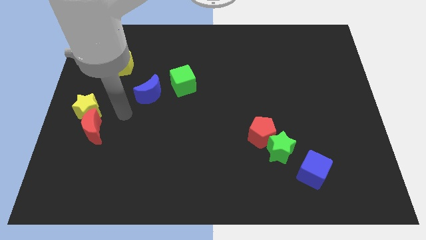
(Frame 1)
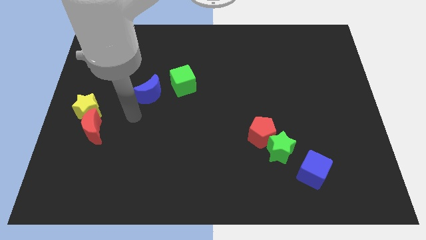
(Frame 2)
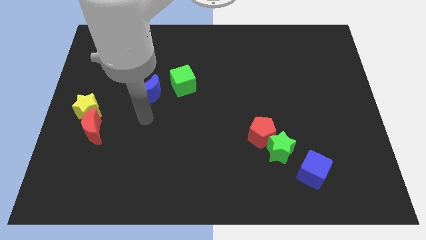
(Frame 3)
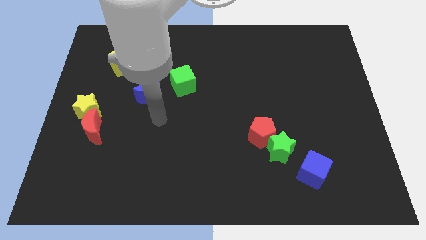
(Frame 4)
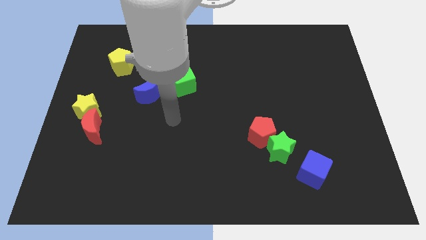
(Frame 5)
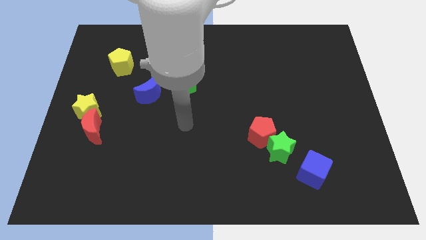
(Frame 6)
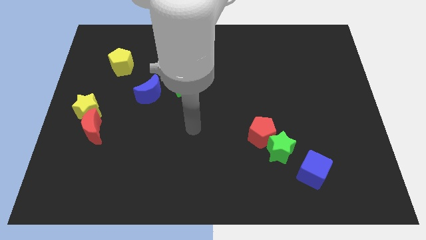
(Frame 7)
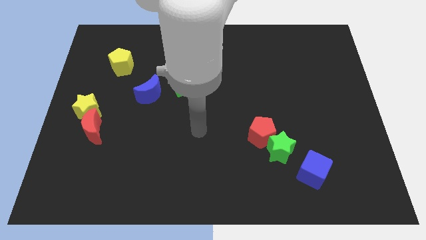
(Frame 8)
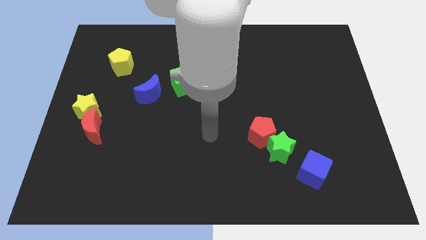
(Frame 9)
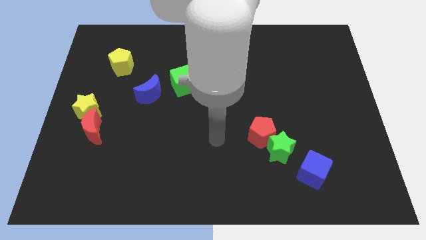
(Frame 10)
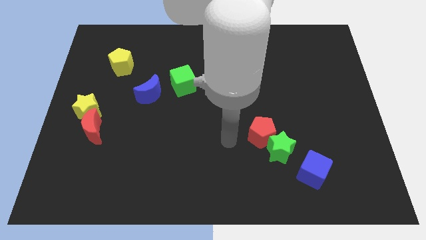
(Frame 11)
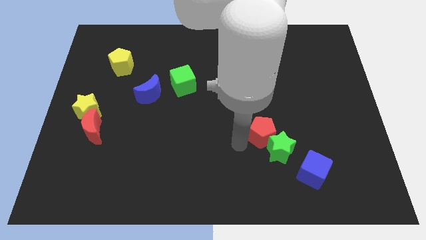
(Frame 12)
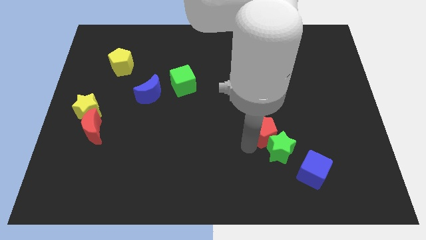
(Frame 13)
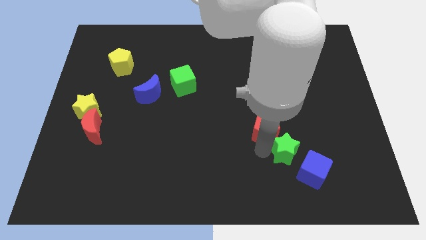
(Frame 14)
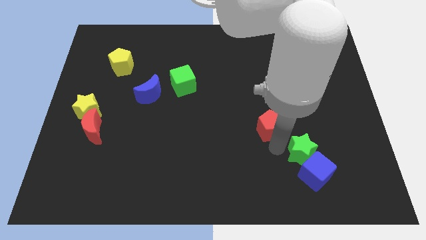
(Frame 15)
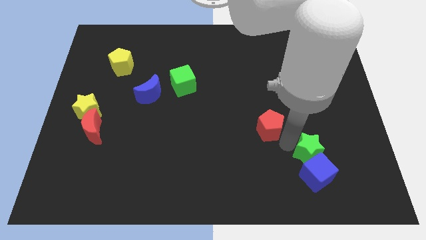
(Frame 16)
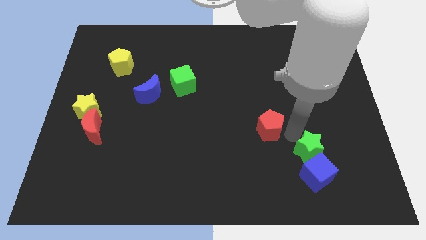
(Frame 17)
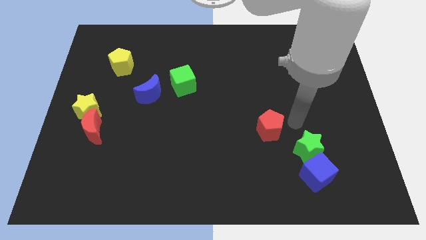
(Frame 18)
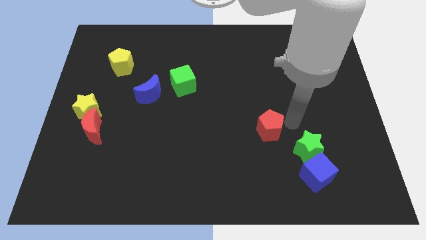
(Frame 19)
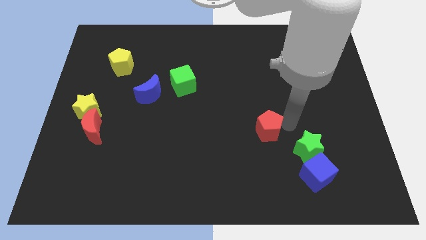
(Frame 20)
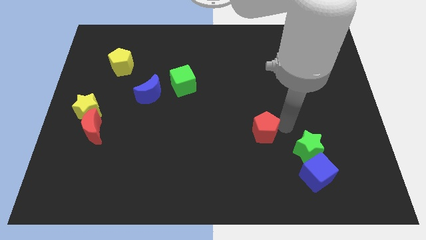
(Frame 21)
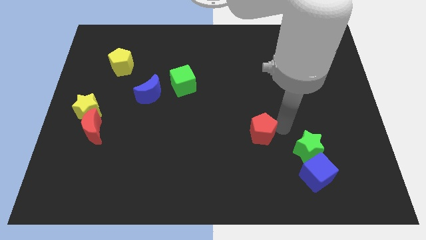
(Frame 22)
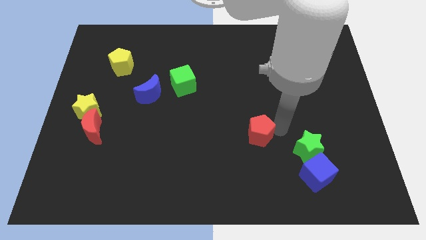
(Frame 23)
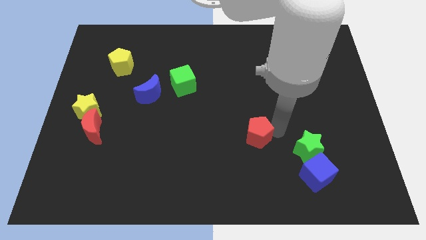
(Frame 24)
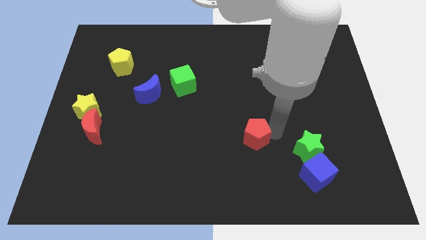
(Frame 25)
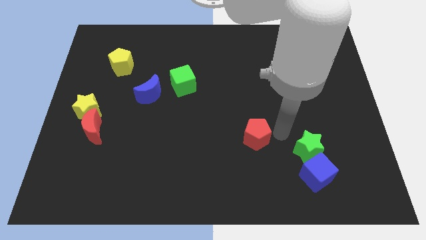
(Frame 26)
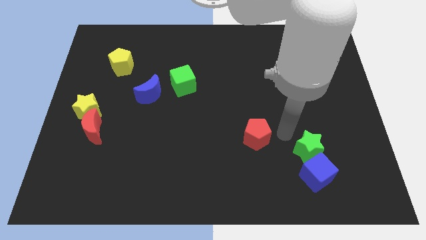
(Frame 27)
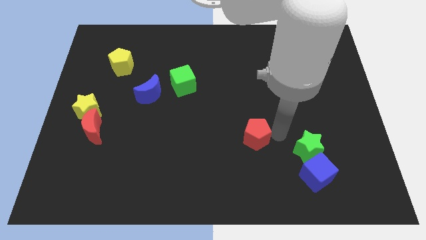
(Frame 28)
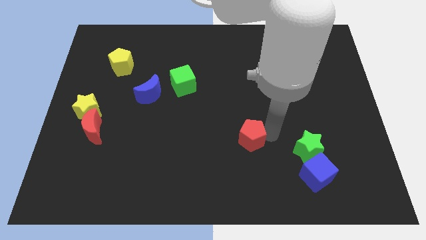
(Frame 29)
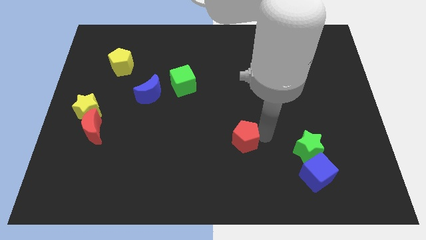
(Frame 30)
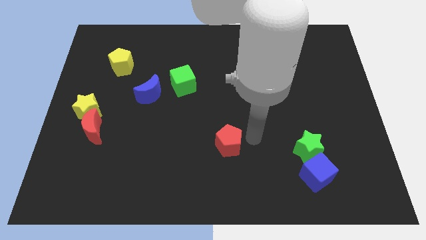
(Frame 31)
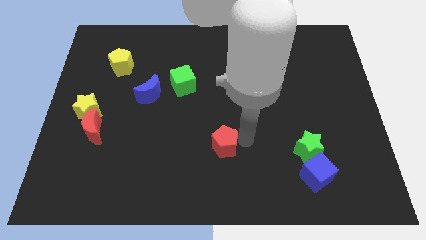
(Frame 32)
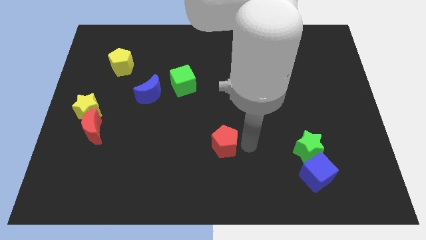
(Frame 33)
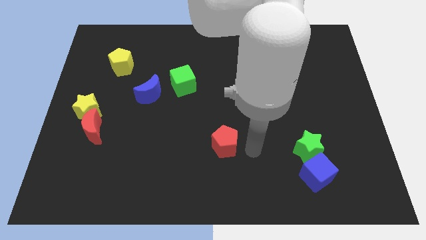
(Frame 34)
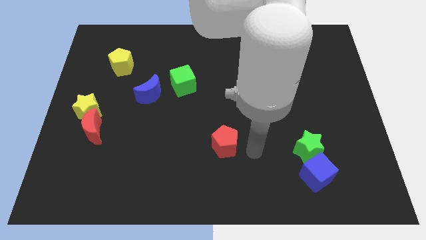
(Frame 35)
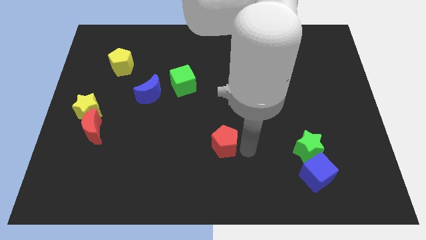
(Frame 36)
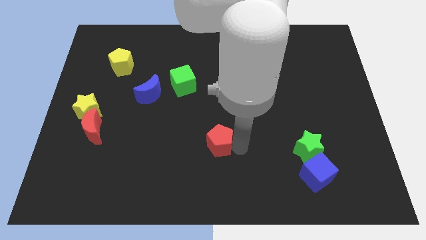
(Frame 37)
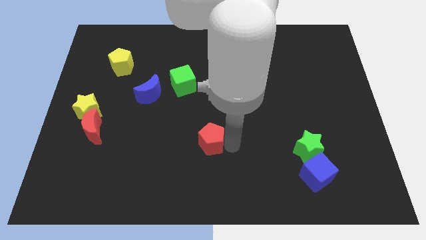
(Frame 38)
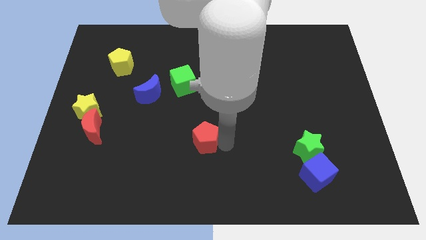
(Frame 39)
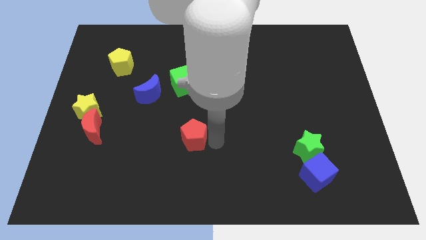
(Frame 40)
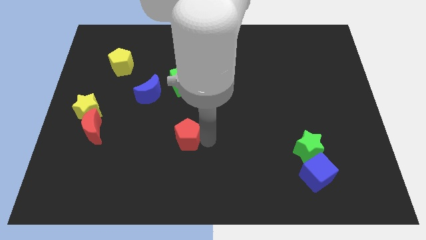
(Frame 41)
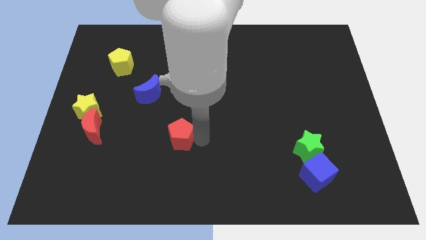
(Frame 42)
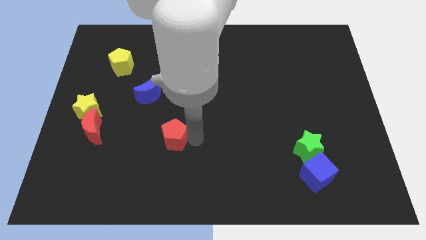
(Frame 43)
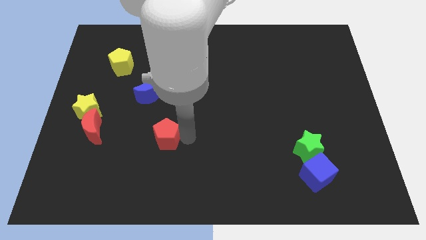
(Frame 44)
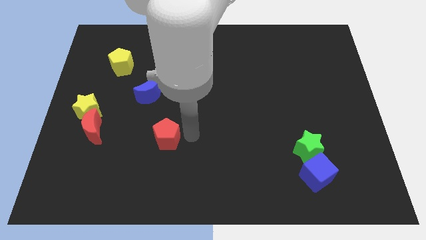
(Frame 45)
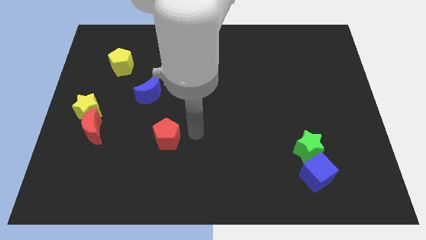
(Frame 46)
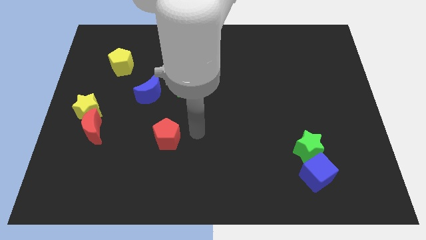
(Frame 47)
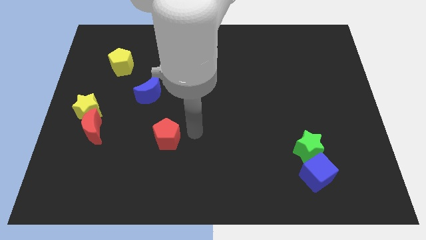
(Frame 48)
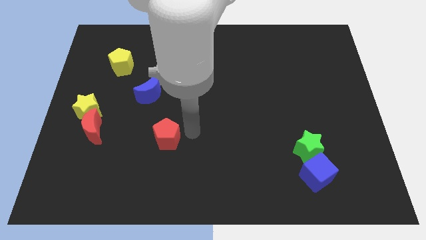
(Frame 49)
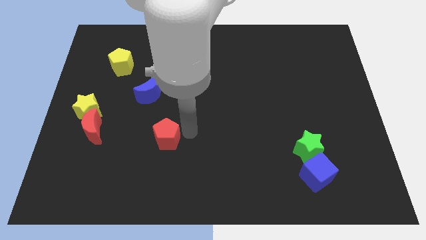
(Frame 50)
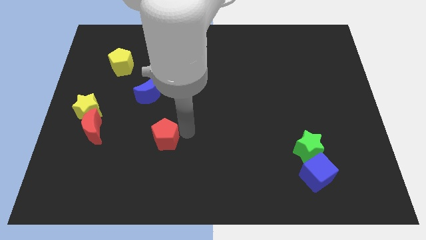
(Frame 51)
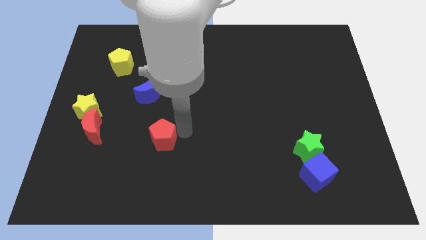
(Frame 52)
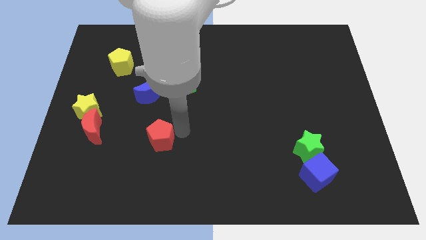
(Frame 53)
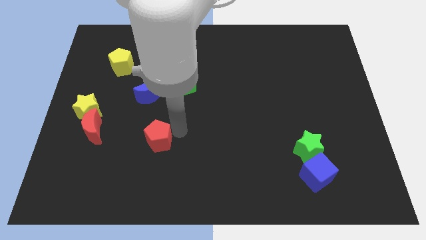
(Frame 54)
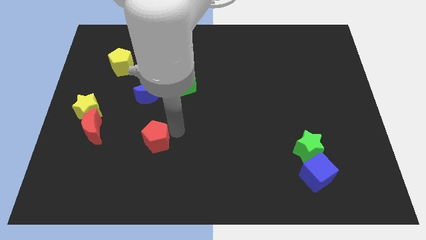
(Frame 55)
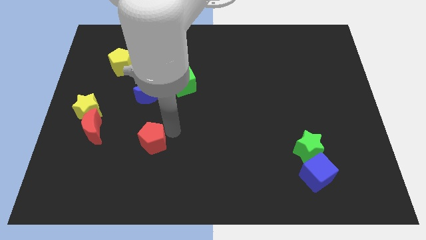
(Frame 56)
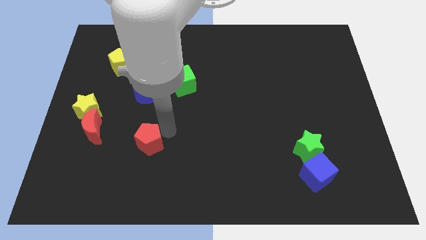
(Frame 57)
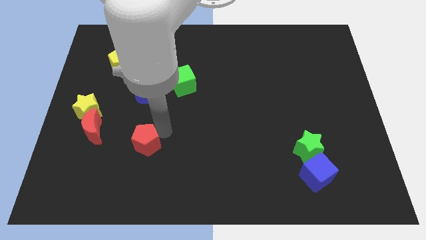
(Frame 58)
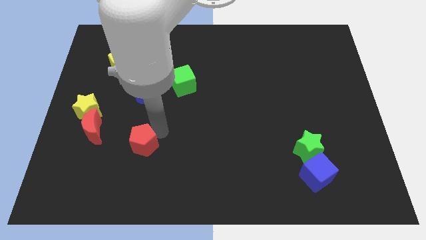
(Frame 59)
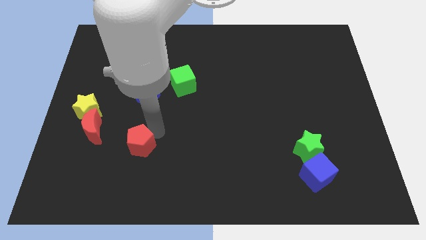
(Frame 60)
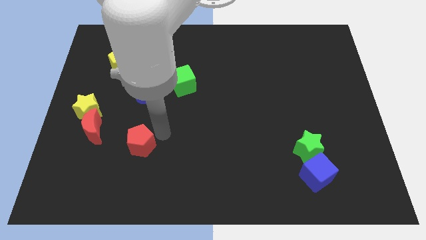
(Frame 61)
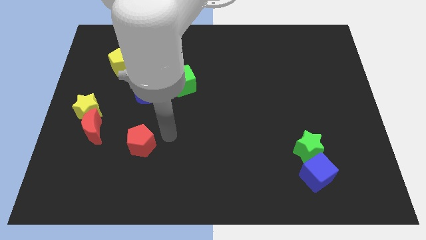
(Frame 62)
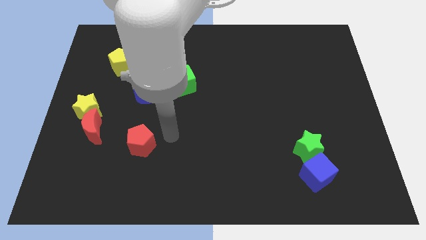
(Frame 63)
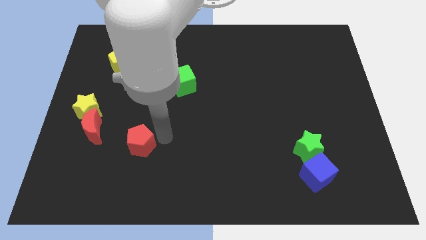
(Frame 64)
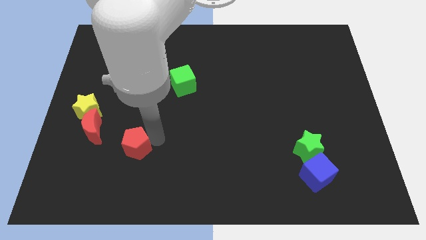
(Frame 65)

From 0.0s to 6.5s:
slide the red pentagon to the bottom right side of the red moon
